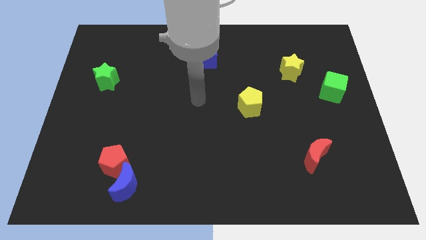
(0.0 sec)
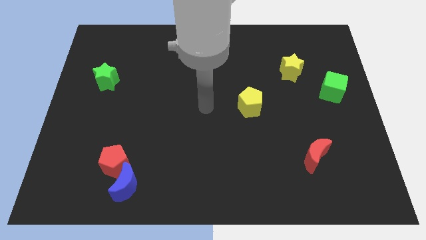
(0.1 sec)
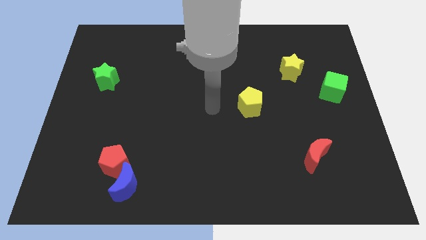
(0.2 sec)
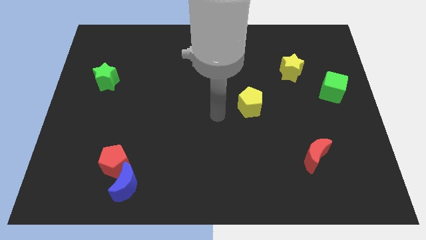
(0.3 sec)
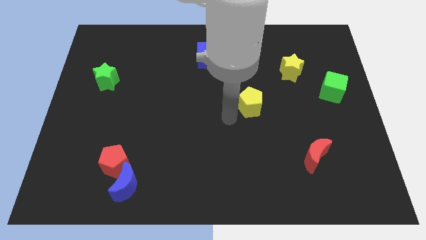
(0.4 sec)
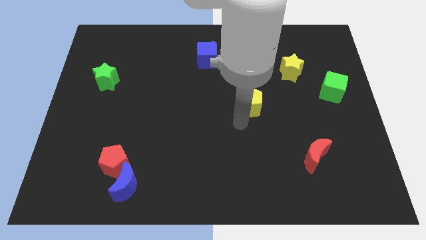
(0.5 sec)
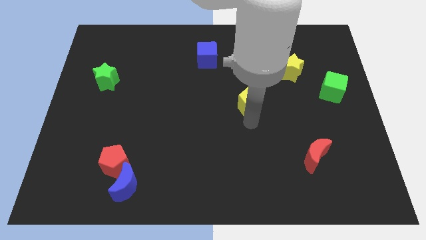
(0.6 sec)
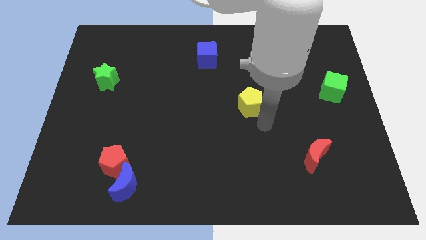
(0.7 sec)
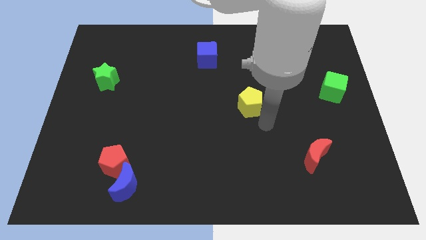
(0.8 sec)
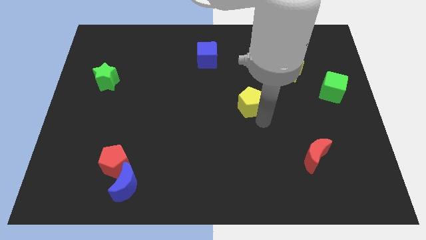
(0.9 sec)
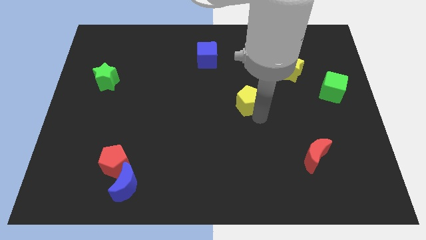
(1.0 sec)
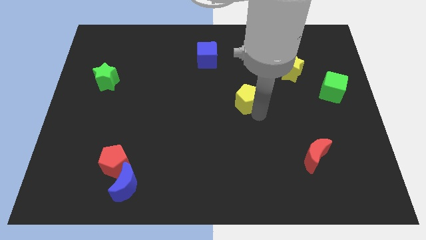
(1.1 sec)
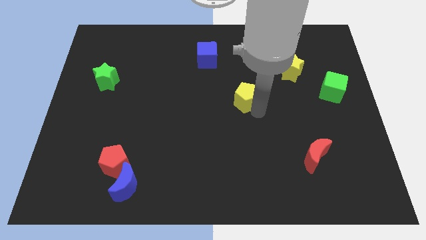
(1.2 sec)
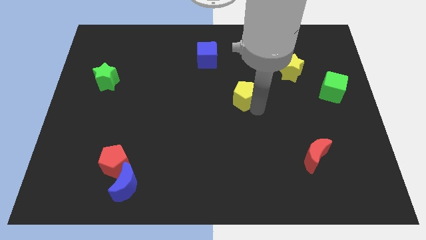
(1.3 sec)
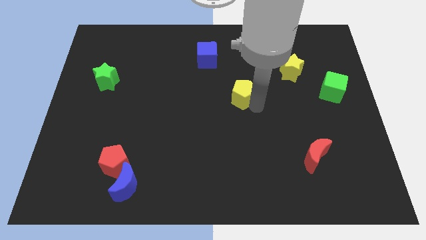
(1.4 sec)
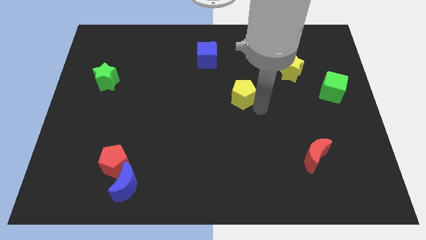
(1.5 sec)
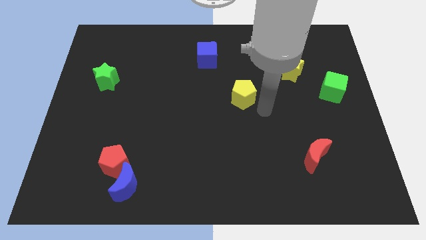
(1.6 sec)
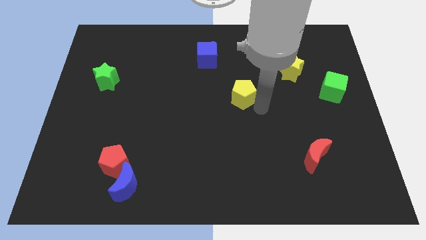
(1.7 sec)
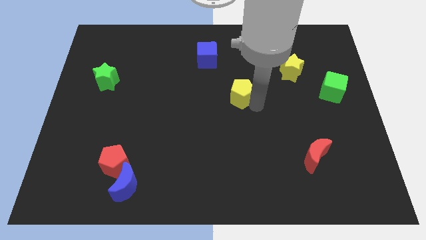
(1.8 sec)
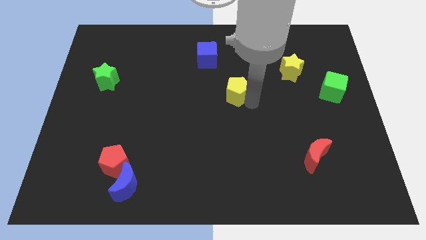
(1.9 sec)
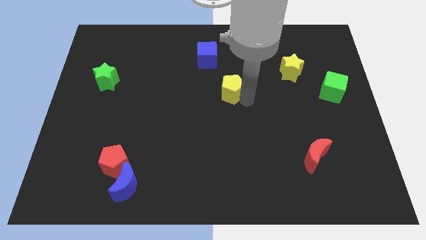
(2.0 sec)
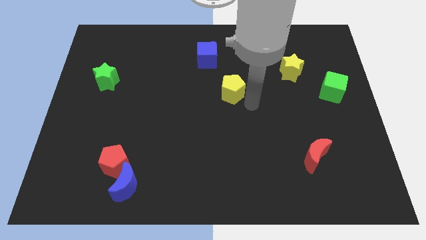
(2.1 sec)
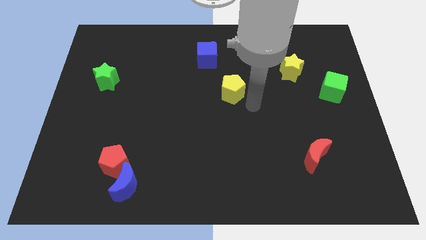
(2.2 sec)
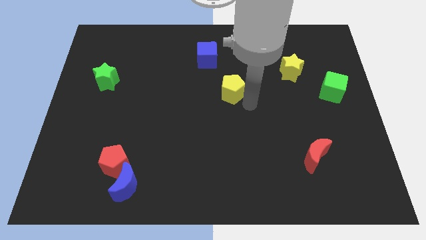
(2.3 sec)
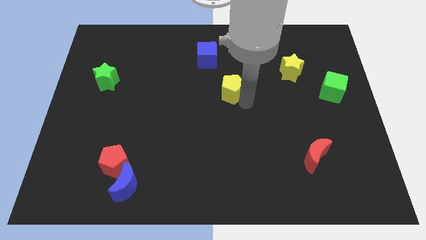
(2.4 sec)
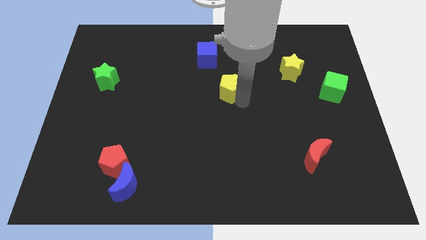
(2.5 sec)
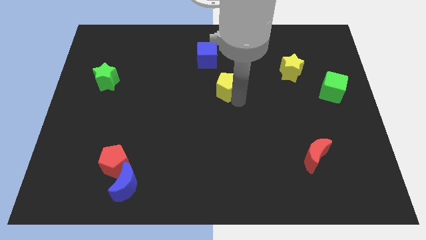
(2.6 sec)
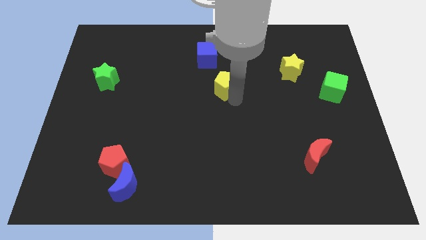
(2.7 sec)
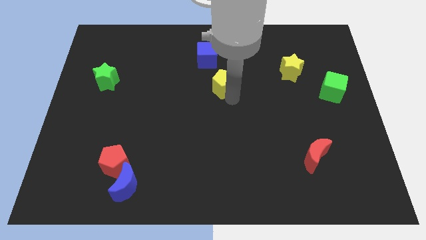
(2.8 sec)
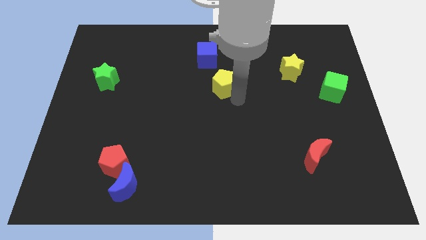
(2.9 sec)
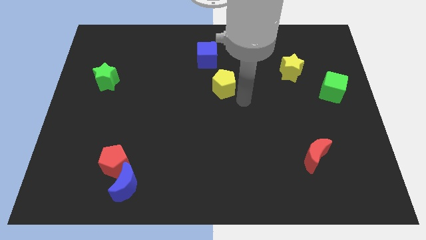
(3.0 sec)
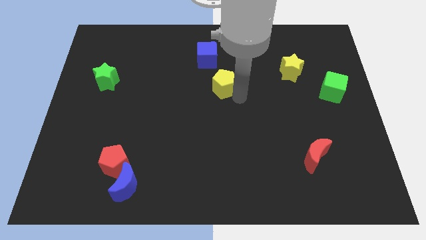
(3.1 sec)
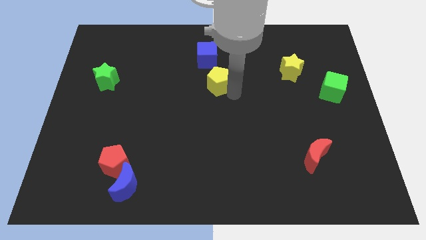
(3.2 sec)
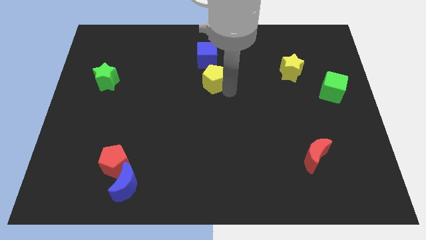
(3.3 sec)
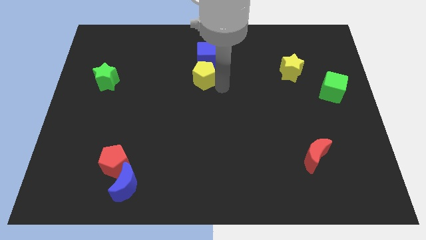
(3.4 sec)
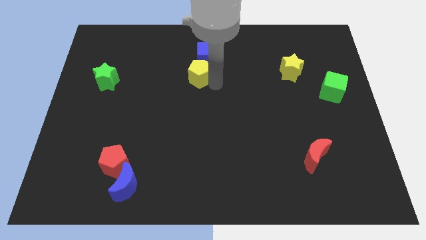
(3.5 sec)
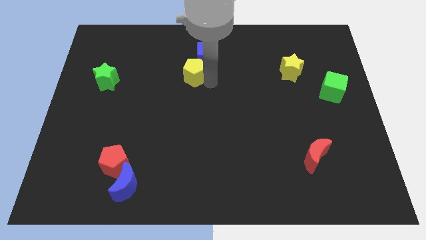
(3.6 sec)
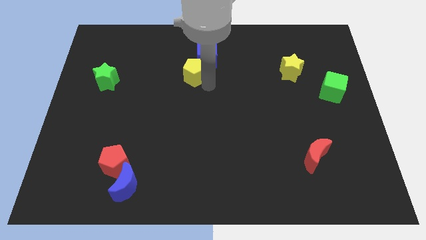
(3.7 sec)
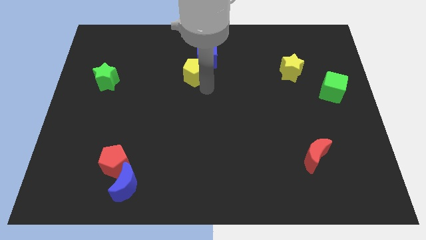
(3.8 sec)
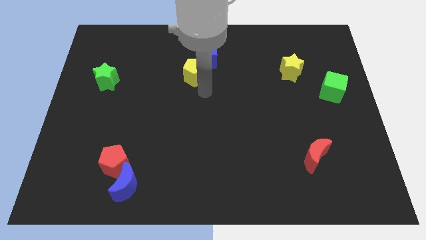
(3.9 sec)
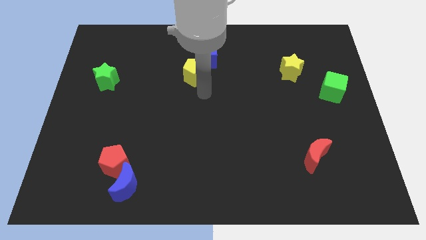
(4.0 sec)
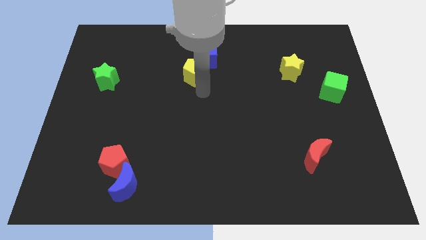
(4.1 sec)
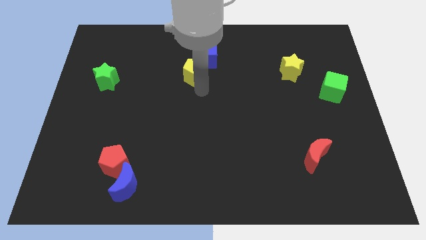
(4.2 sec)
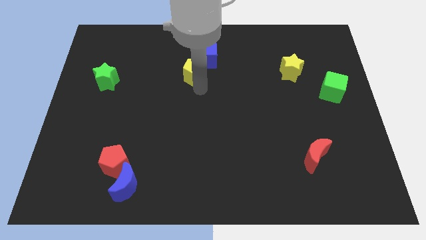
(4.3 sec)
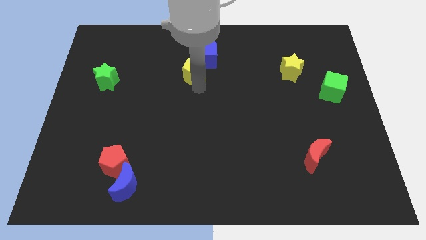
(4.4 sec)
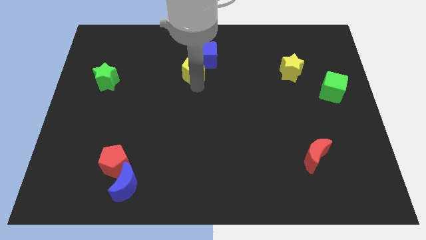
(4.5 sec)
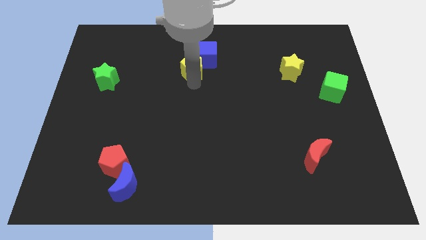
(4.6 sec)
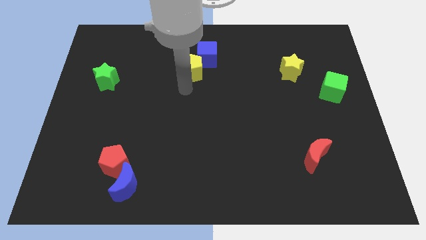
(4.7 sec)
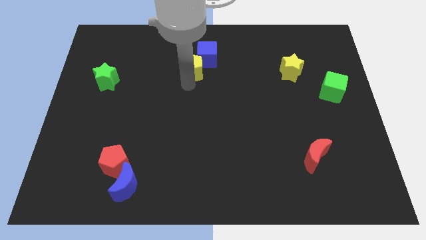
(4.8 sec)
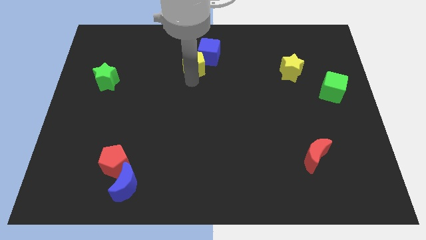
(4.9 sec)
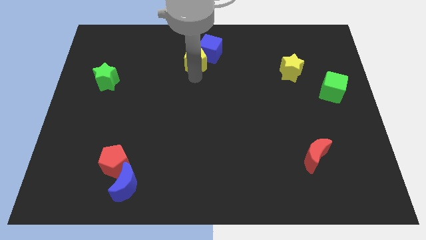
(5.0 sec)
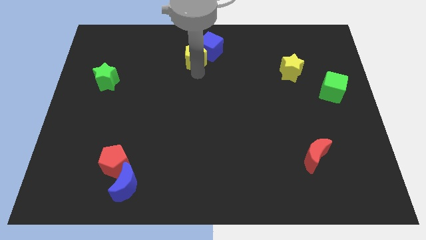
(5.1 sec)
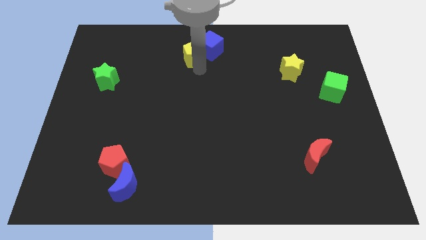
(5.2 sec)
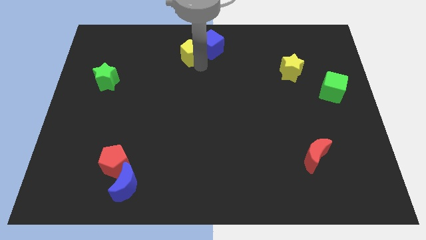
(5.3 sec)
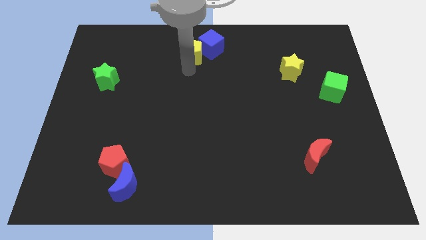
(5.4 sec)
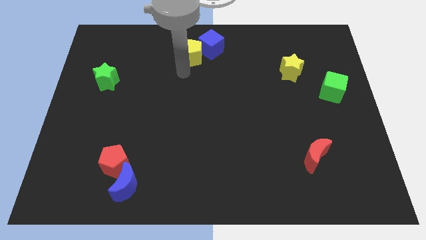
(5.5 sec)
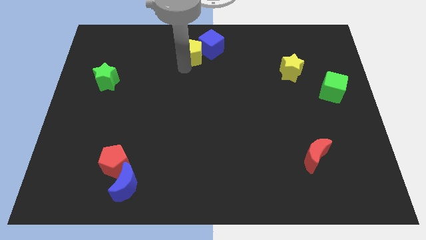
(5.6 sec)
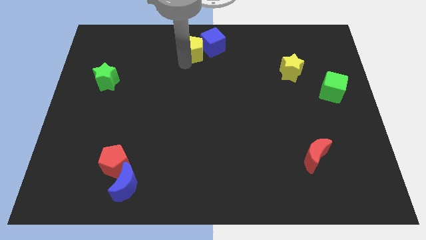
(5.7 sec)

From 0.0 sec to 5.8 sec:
push the yellow pentagon to the top side

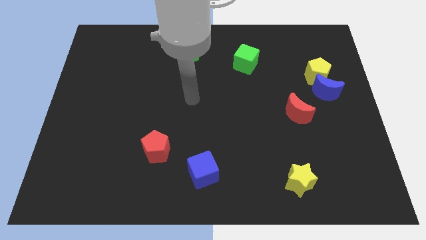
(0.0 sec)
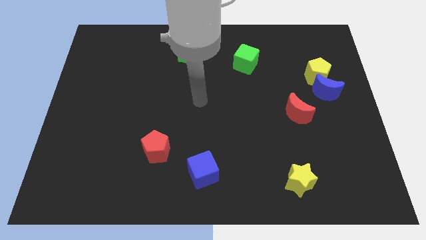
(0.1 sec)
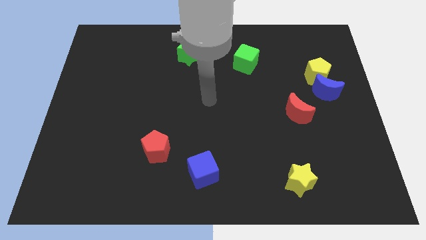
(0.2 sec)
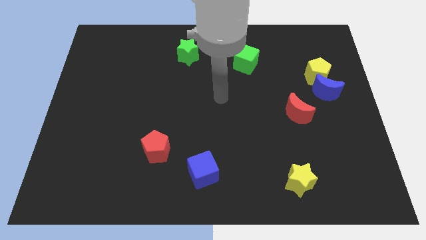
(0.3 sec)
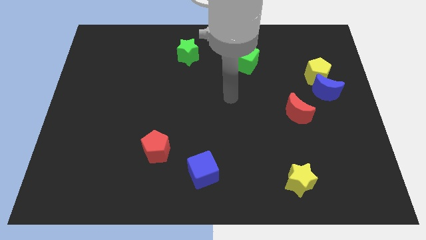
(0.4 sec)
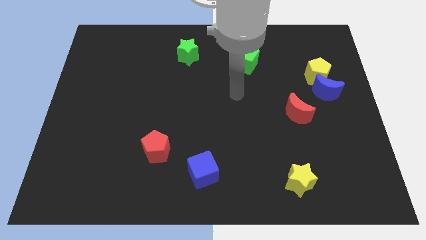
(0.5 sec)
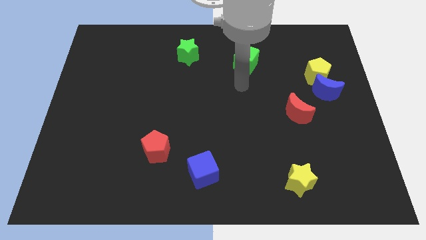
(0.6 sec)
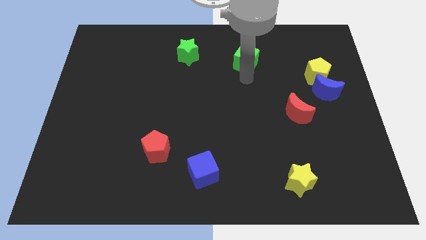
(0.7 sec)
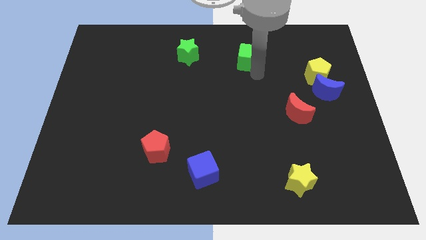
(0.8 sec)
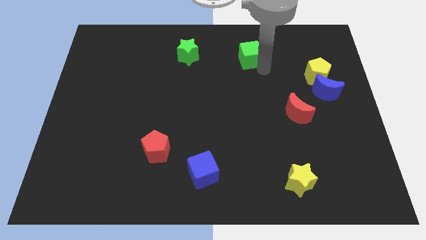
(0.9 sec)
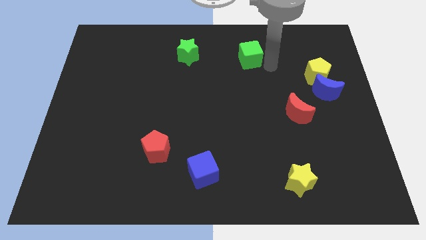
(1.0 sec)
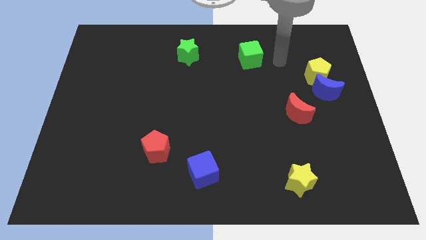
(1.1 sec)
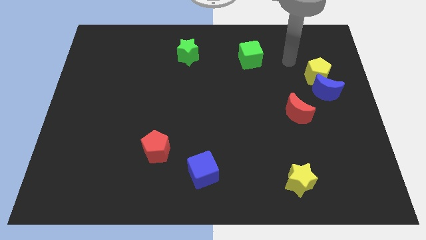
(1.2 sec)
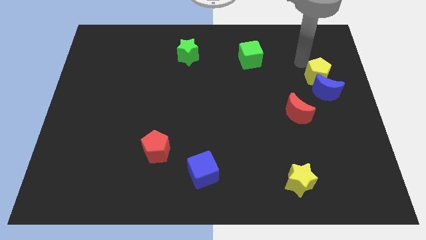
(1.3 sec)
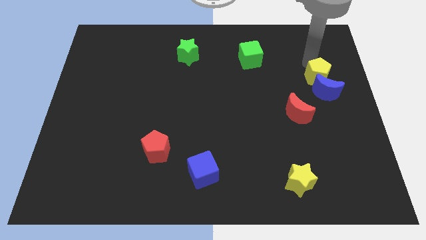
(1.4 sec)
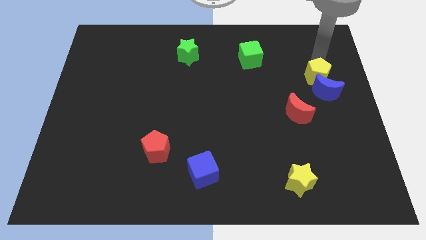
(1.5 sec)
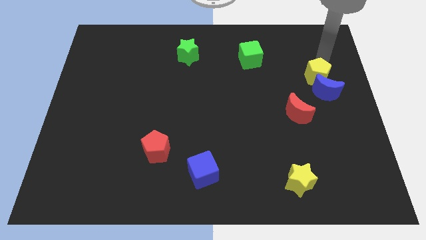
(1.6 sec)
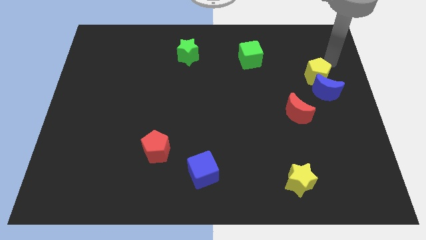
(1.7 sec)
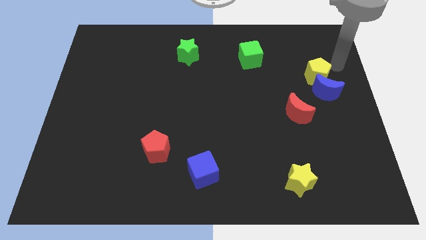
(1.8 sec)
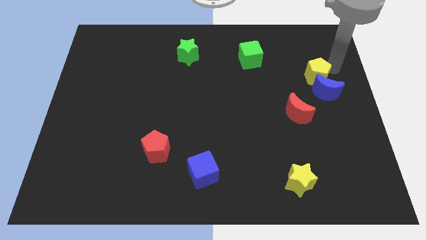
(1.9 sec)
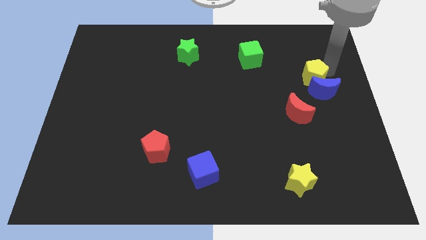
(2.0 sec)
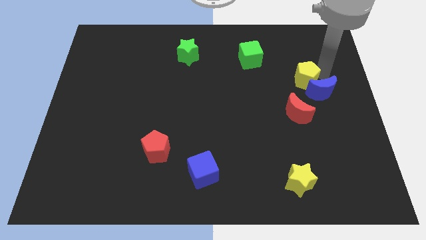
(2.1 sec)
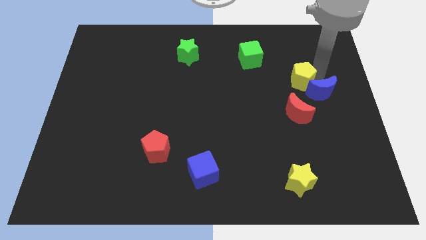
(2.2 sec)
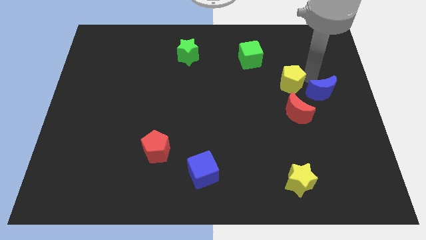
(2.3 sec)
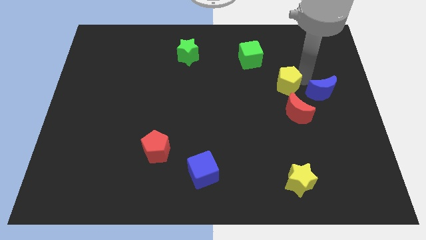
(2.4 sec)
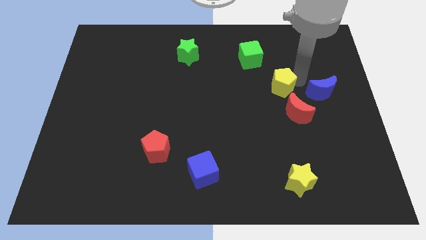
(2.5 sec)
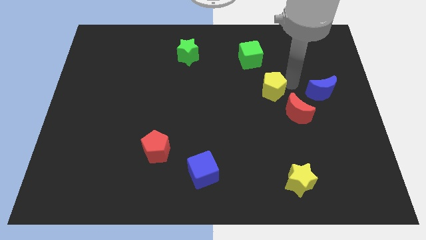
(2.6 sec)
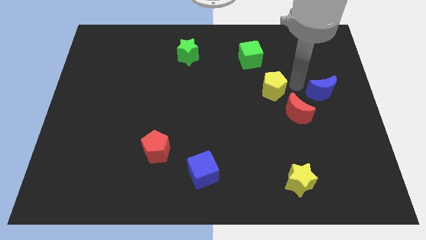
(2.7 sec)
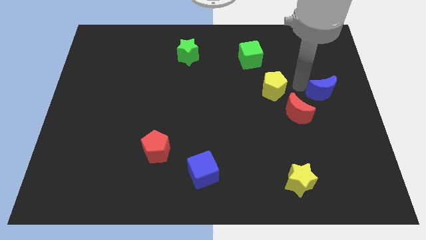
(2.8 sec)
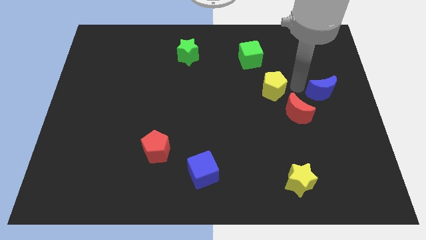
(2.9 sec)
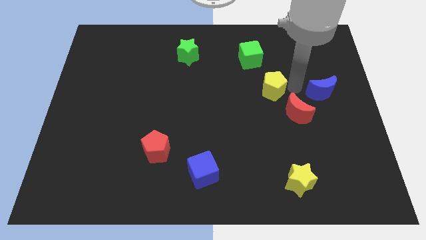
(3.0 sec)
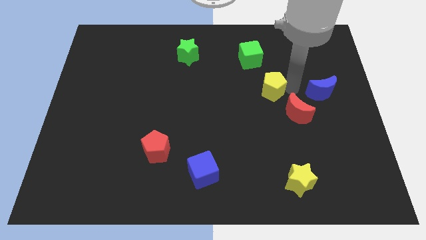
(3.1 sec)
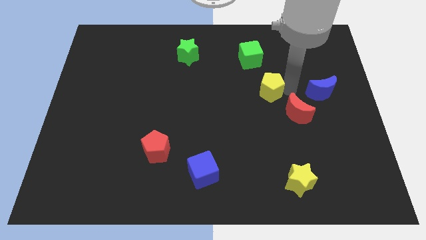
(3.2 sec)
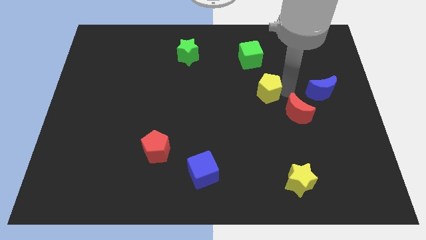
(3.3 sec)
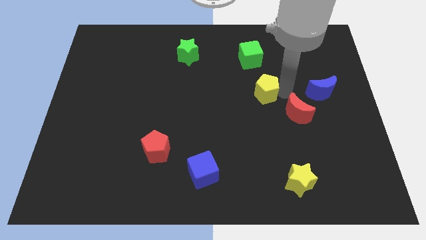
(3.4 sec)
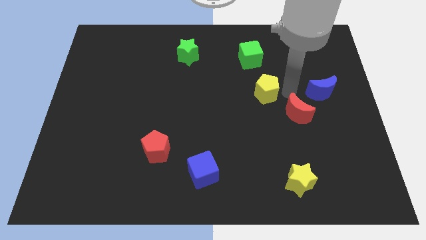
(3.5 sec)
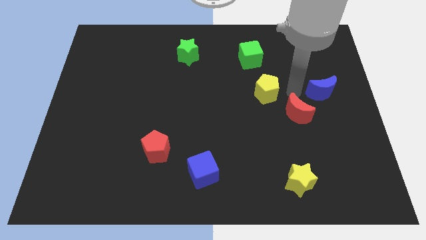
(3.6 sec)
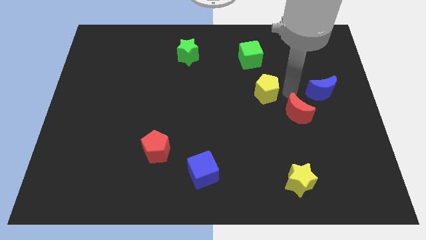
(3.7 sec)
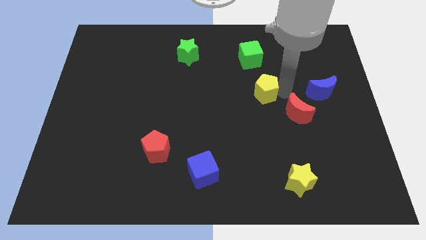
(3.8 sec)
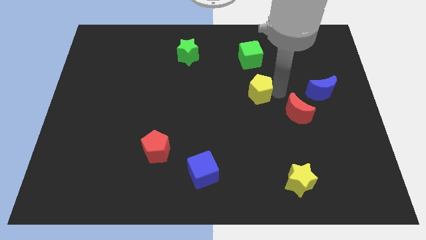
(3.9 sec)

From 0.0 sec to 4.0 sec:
push the yellow pentagon to the middle of the board
